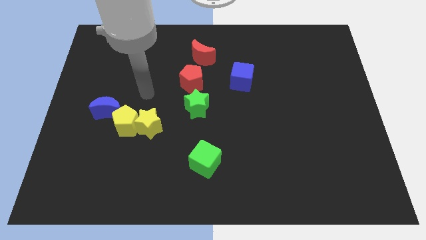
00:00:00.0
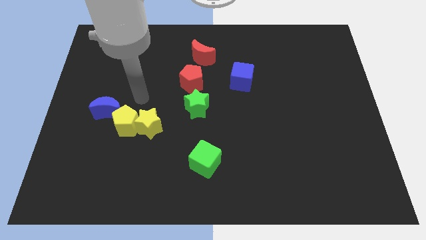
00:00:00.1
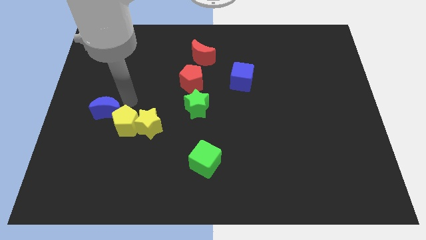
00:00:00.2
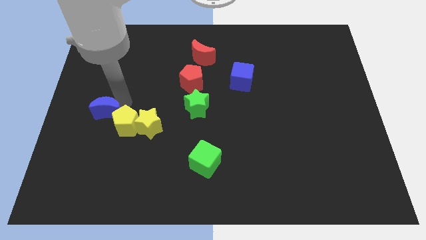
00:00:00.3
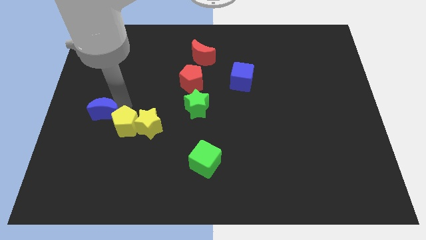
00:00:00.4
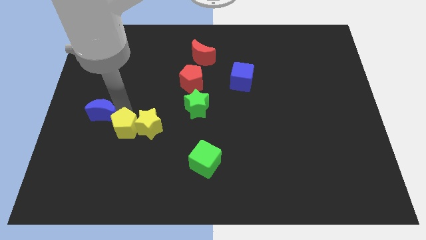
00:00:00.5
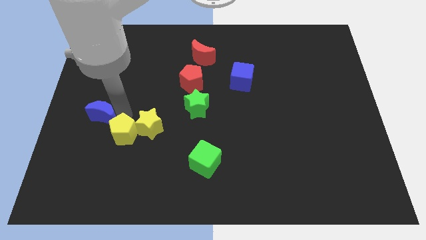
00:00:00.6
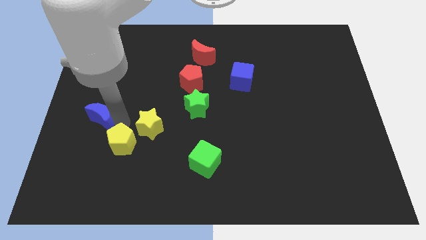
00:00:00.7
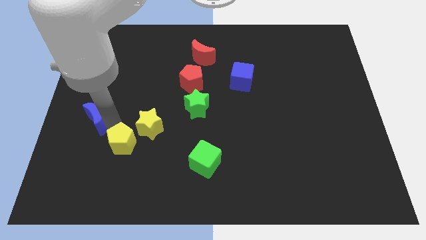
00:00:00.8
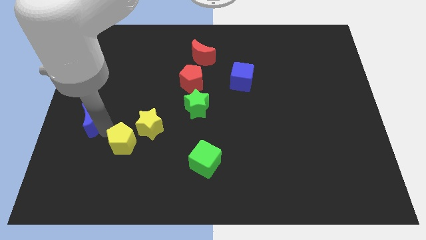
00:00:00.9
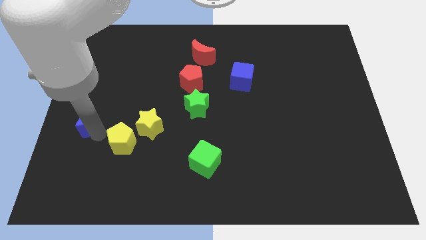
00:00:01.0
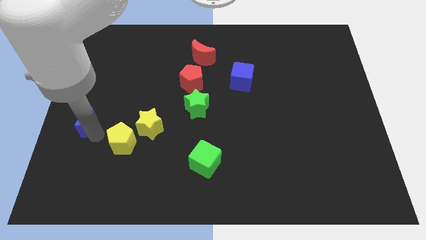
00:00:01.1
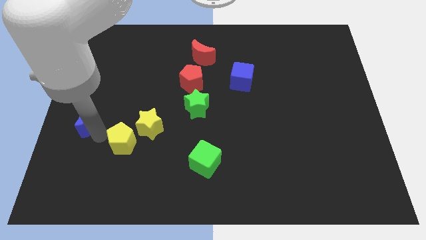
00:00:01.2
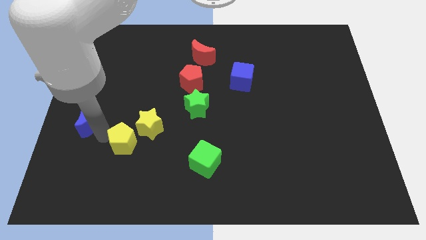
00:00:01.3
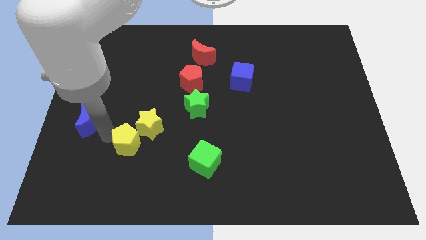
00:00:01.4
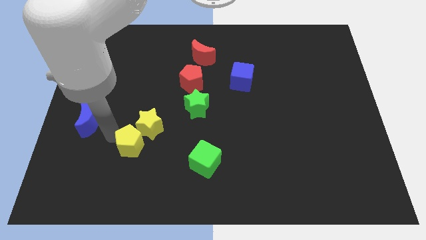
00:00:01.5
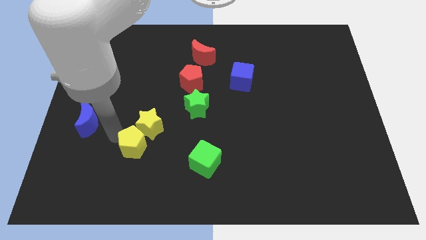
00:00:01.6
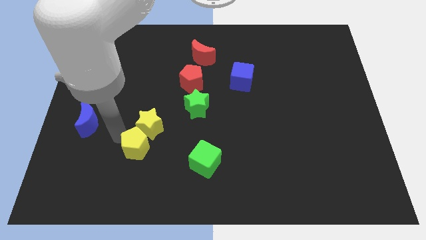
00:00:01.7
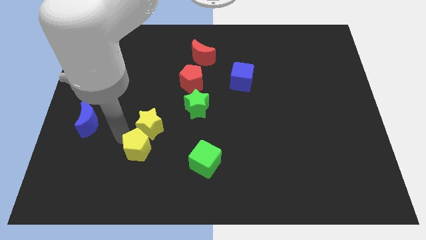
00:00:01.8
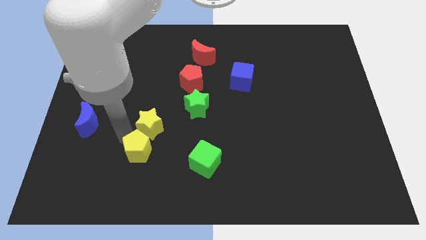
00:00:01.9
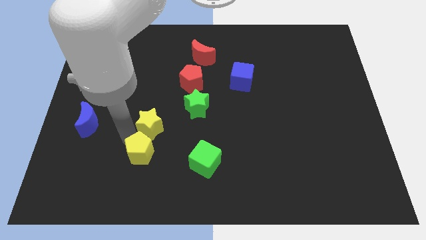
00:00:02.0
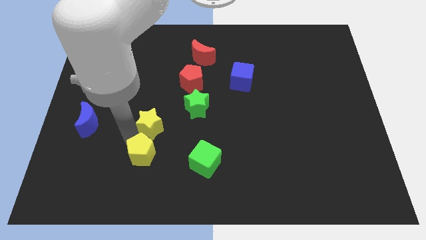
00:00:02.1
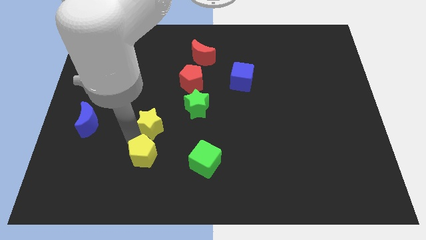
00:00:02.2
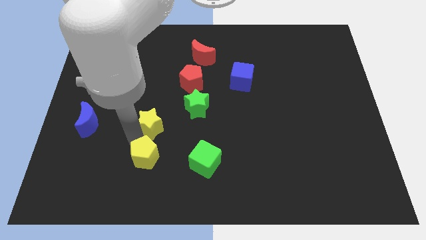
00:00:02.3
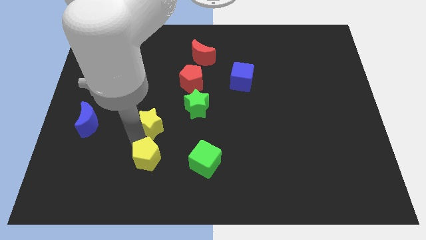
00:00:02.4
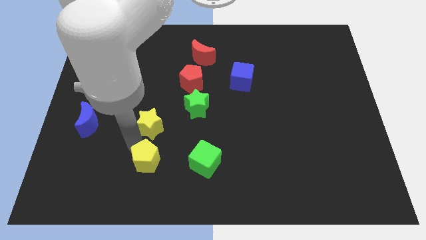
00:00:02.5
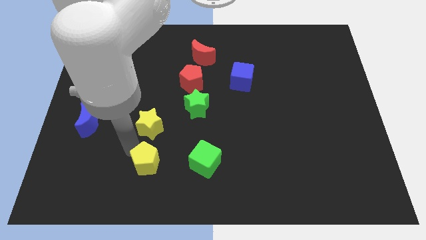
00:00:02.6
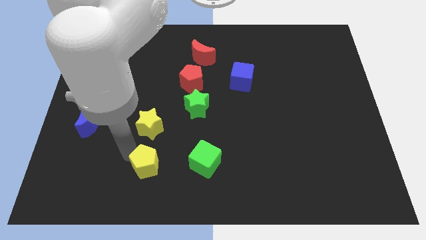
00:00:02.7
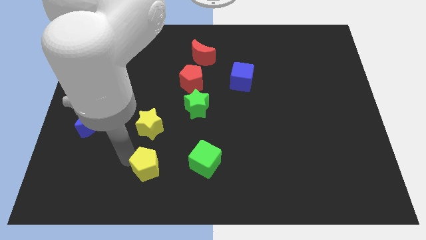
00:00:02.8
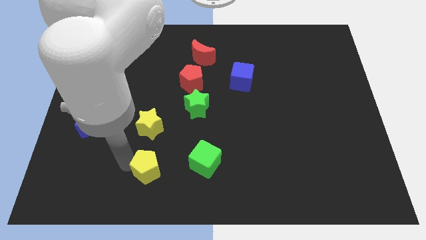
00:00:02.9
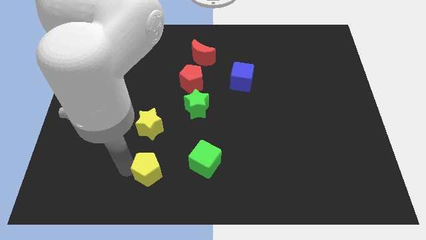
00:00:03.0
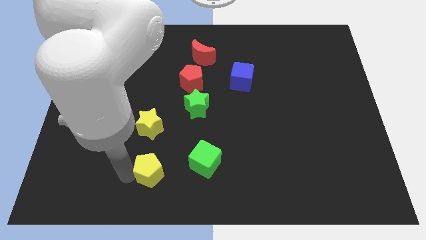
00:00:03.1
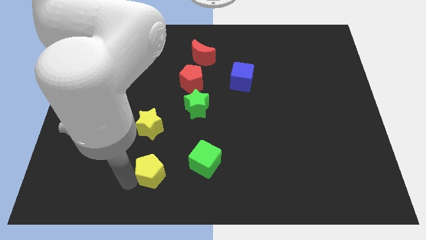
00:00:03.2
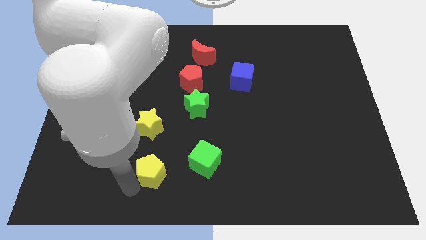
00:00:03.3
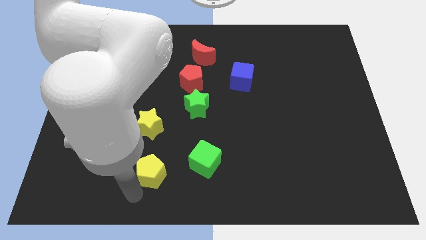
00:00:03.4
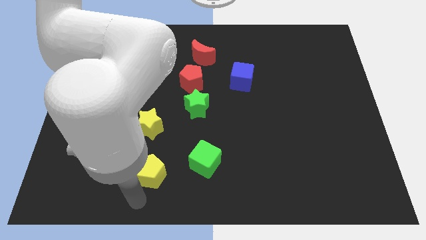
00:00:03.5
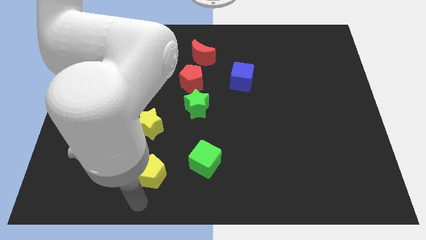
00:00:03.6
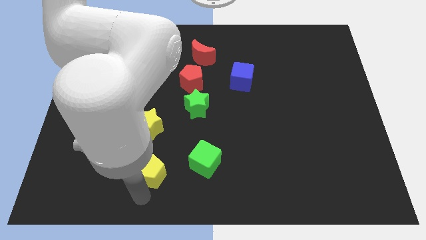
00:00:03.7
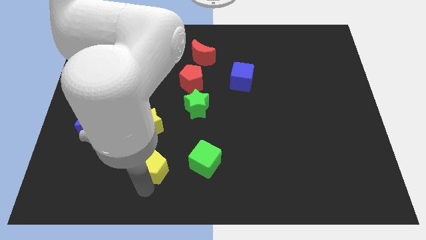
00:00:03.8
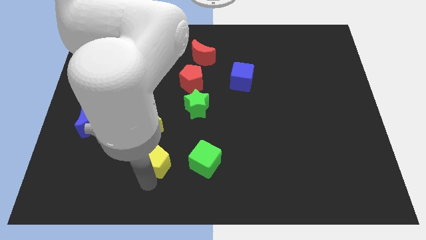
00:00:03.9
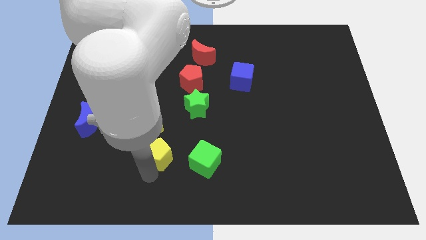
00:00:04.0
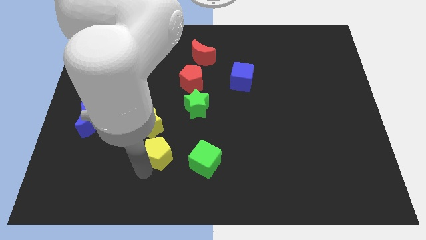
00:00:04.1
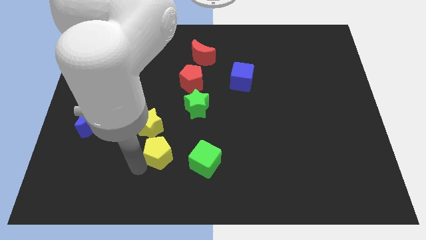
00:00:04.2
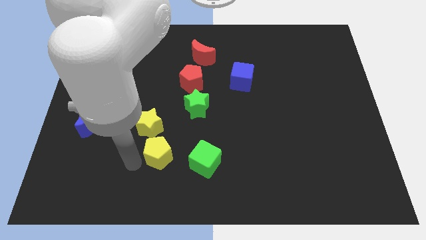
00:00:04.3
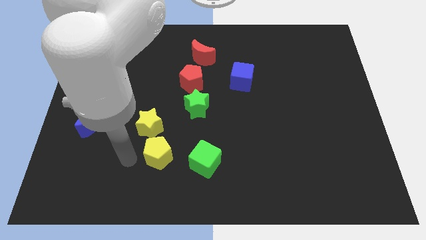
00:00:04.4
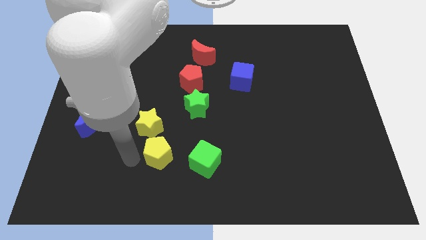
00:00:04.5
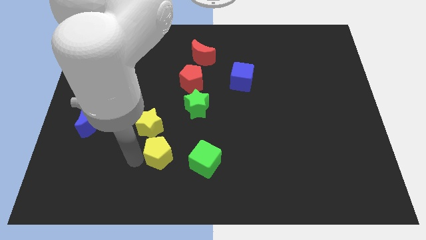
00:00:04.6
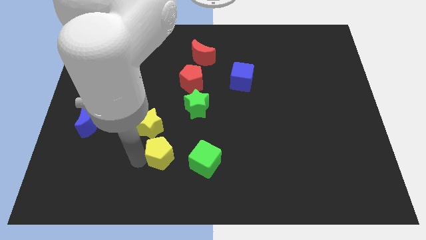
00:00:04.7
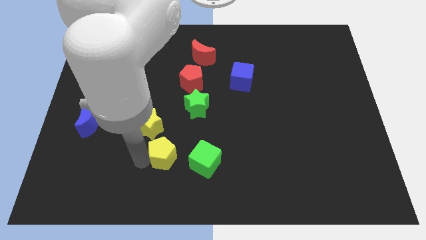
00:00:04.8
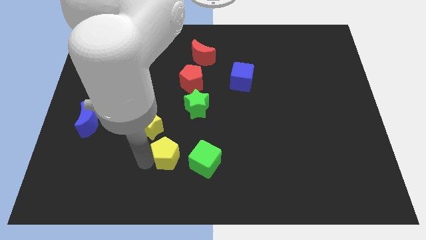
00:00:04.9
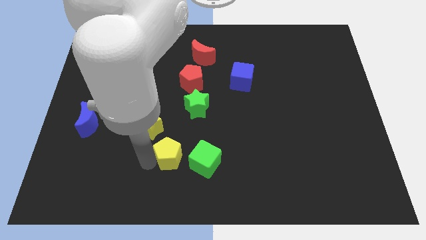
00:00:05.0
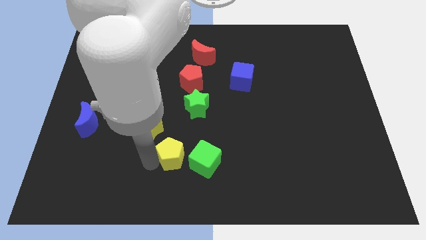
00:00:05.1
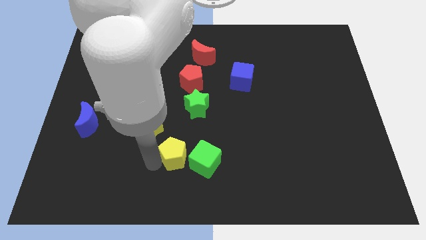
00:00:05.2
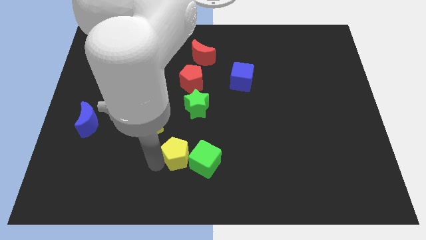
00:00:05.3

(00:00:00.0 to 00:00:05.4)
put the yellow pentagon to the green cube

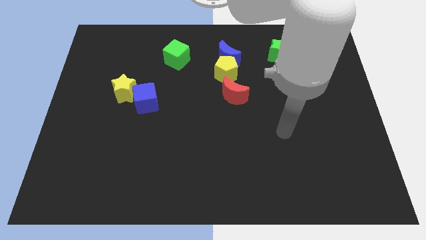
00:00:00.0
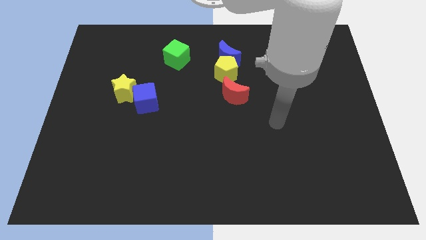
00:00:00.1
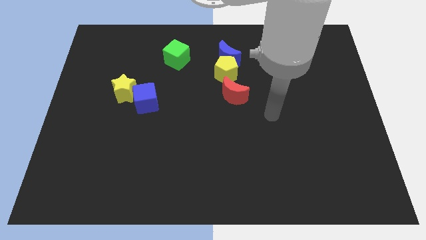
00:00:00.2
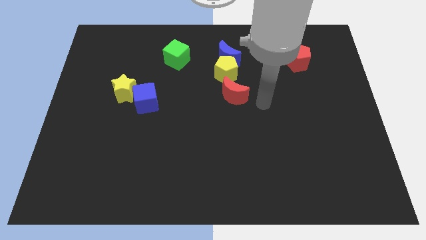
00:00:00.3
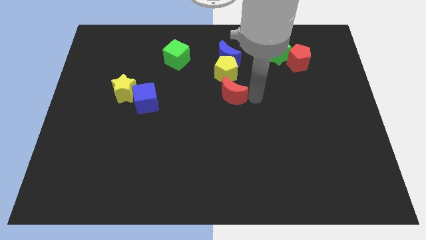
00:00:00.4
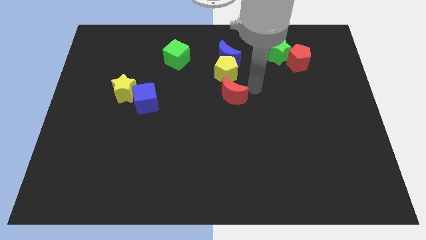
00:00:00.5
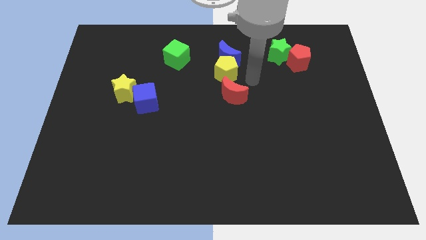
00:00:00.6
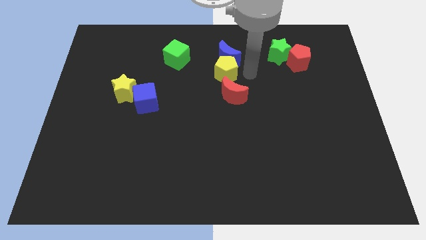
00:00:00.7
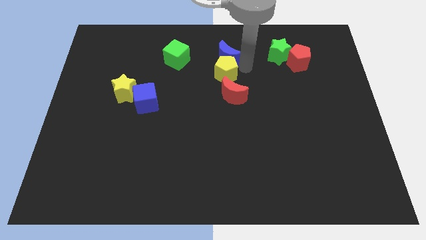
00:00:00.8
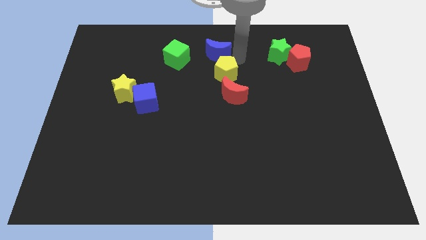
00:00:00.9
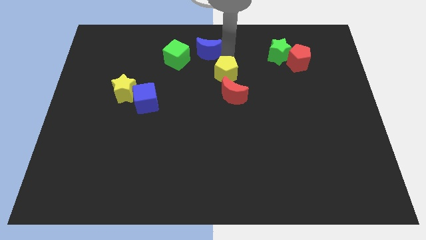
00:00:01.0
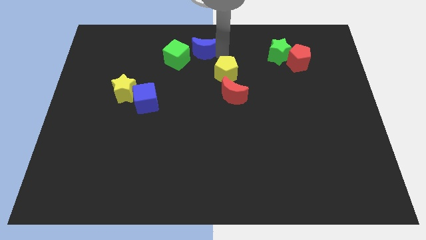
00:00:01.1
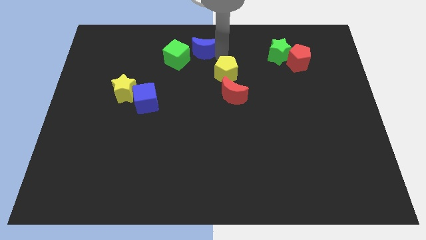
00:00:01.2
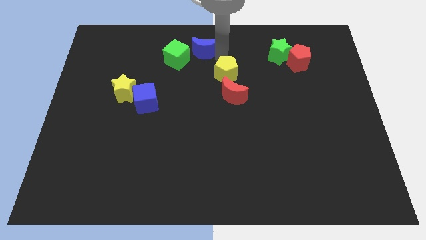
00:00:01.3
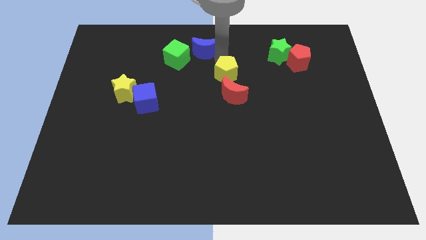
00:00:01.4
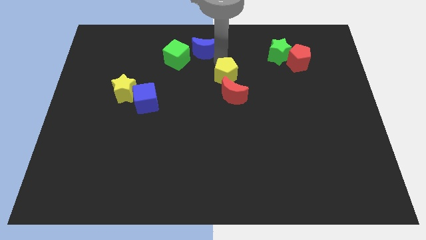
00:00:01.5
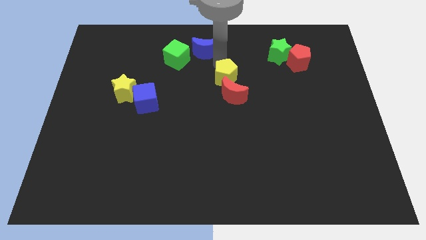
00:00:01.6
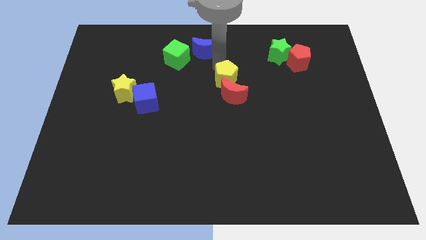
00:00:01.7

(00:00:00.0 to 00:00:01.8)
put the yellow pentagon towards the red moon

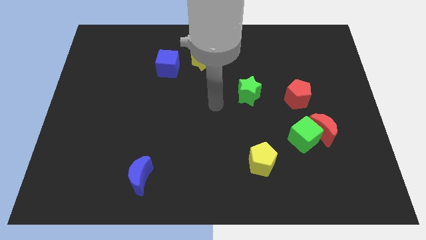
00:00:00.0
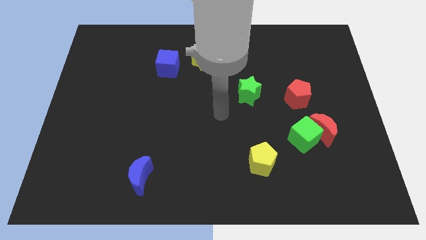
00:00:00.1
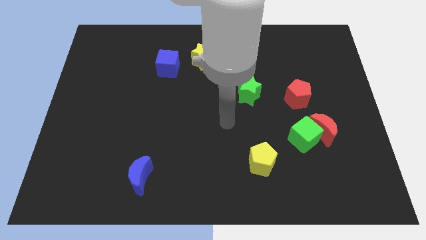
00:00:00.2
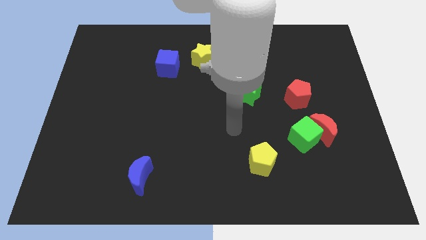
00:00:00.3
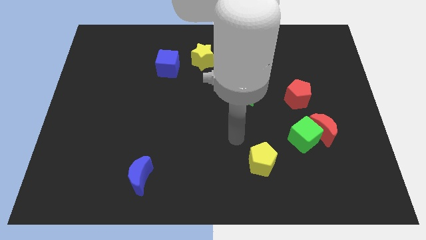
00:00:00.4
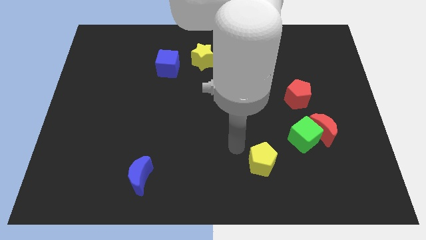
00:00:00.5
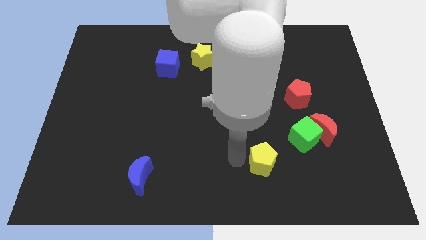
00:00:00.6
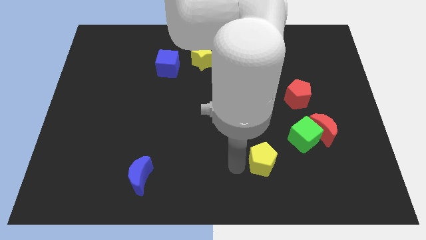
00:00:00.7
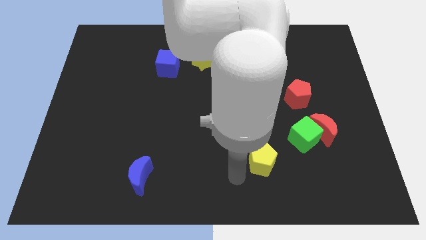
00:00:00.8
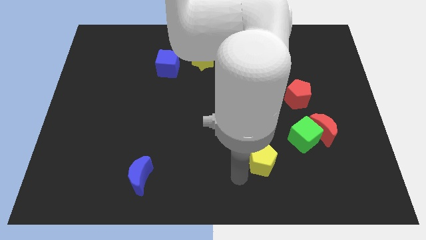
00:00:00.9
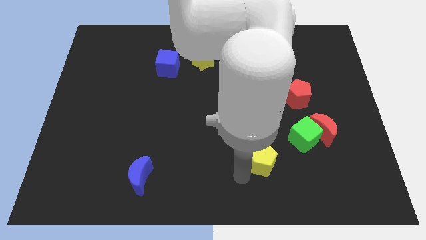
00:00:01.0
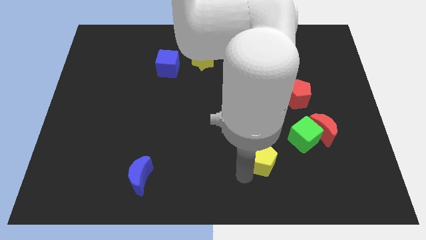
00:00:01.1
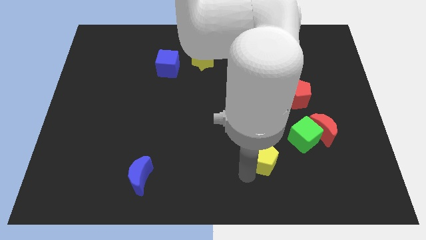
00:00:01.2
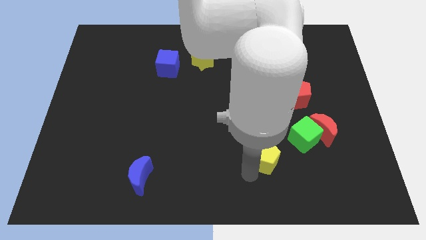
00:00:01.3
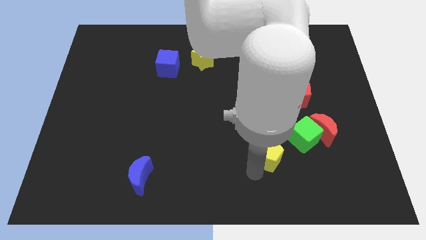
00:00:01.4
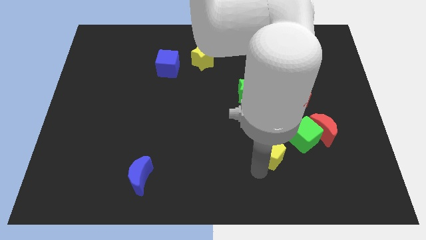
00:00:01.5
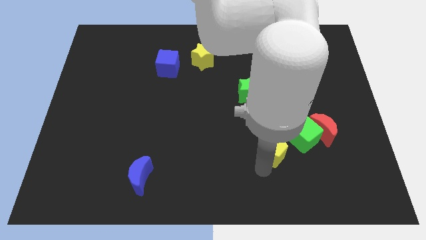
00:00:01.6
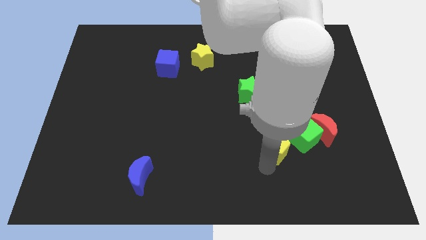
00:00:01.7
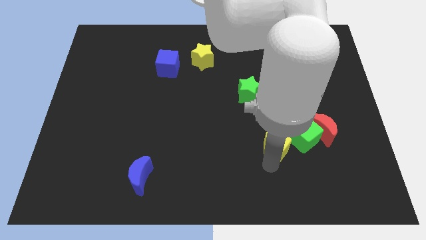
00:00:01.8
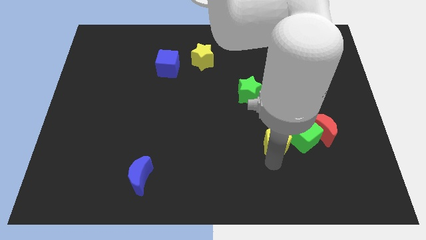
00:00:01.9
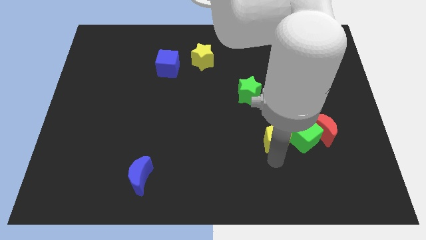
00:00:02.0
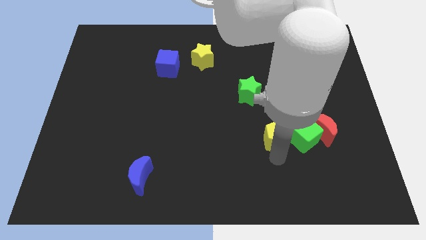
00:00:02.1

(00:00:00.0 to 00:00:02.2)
push the yellow pentagon towards the green cube
